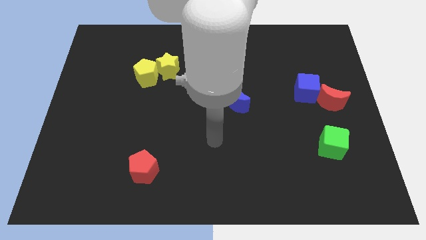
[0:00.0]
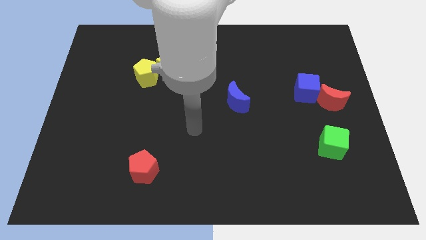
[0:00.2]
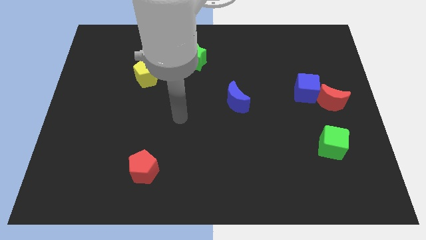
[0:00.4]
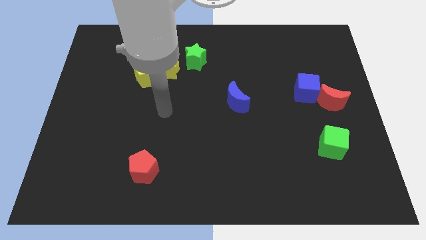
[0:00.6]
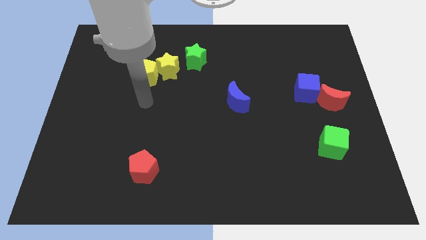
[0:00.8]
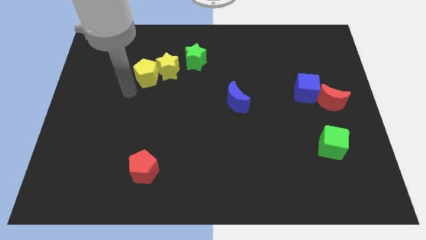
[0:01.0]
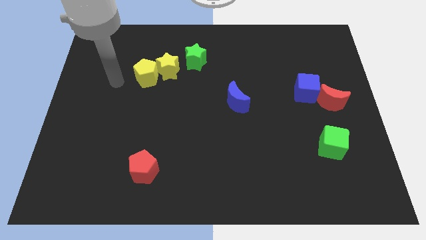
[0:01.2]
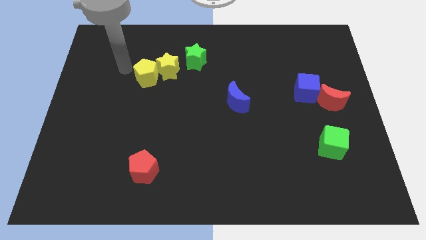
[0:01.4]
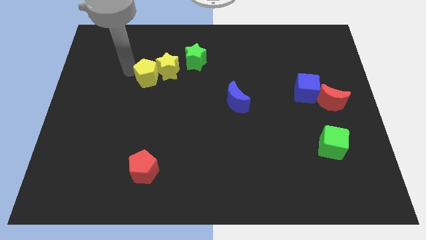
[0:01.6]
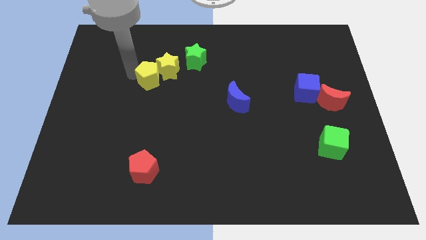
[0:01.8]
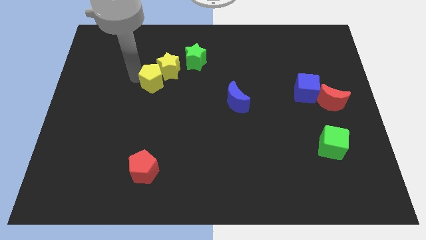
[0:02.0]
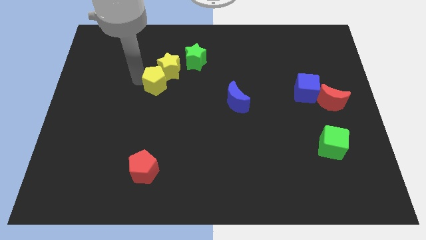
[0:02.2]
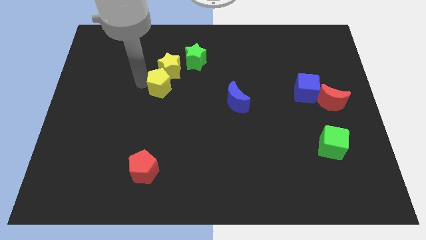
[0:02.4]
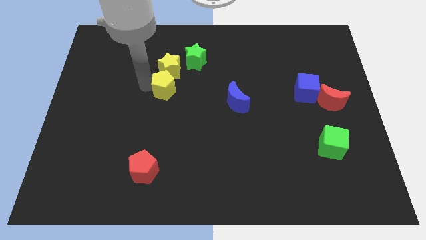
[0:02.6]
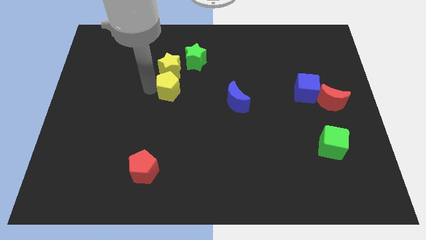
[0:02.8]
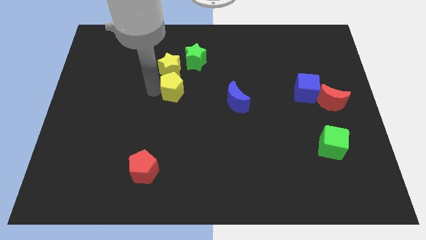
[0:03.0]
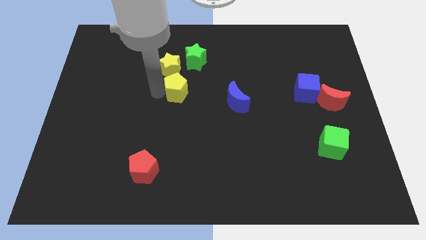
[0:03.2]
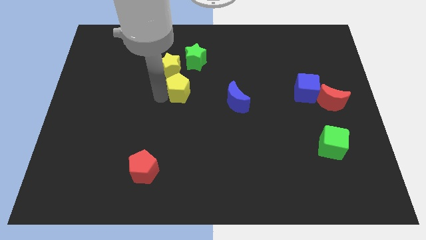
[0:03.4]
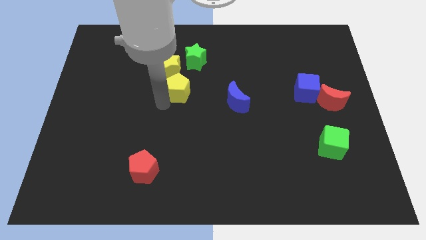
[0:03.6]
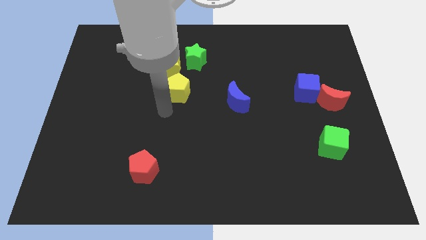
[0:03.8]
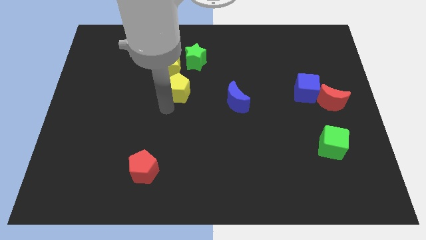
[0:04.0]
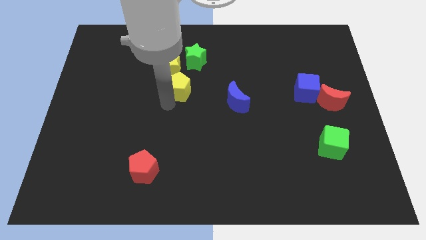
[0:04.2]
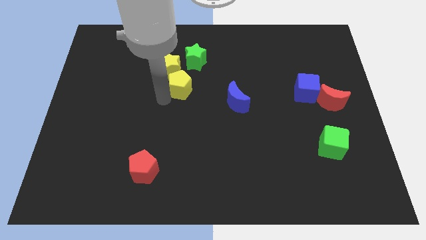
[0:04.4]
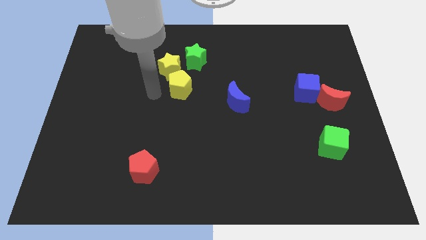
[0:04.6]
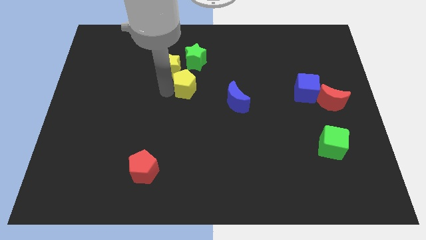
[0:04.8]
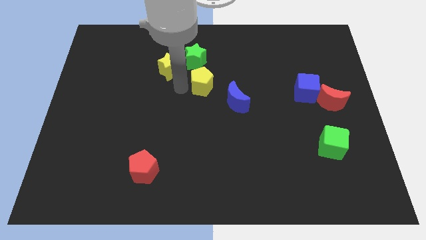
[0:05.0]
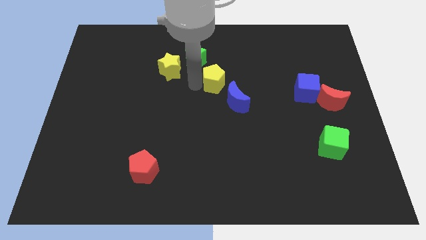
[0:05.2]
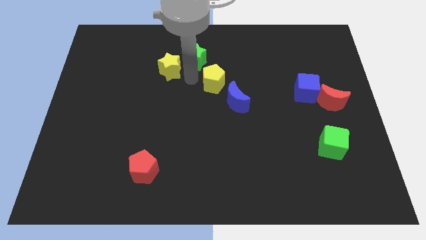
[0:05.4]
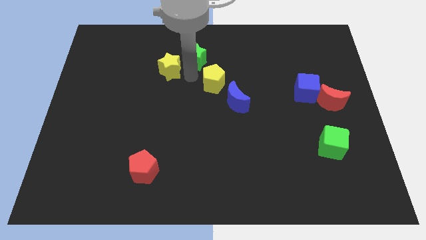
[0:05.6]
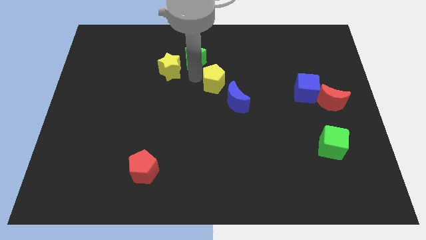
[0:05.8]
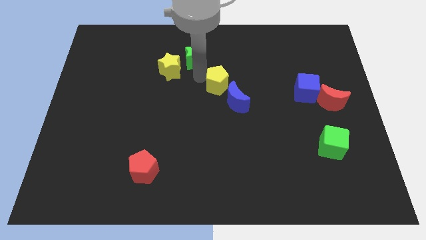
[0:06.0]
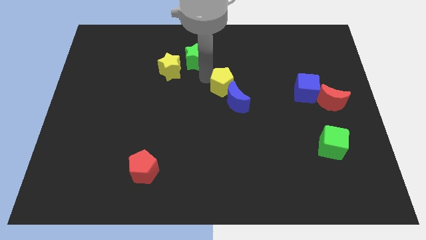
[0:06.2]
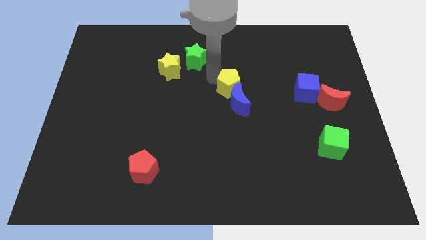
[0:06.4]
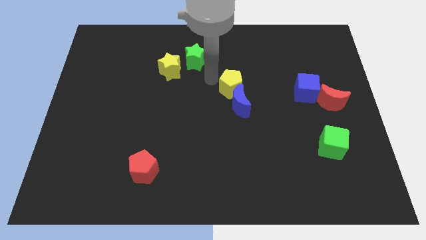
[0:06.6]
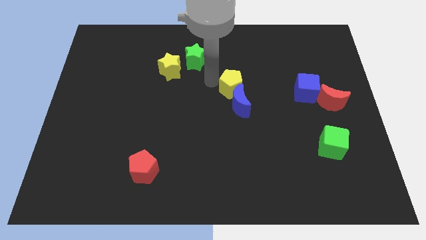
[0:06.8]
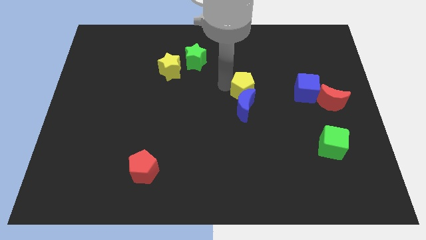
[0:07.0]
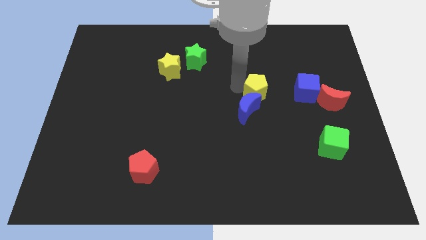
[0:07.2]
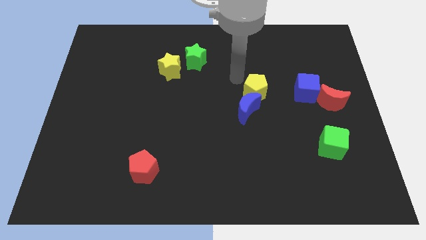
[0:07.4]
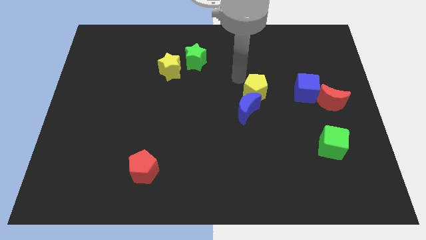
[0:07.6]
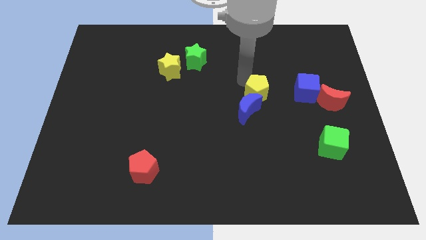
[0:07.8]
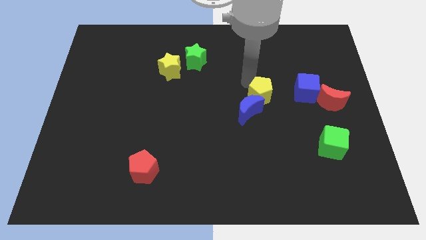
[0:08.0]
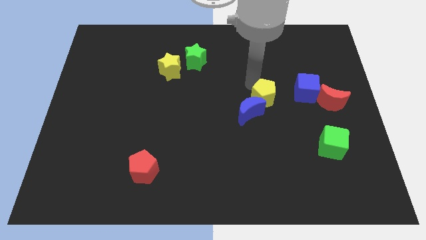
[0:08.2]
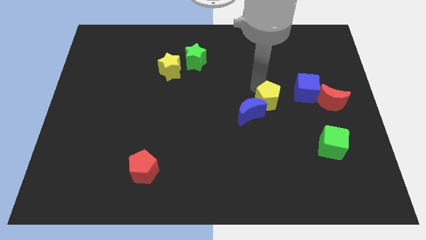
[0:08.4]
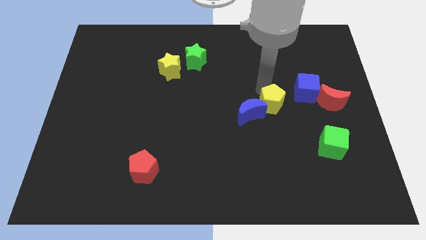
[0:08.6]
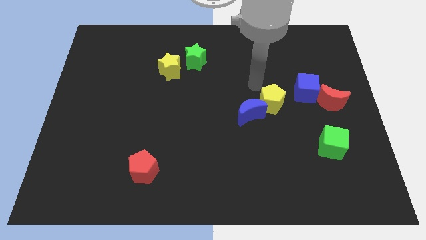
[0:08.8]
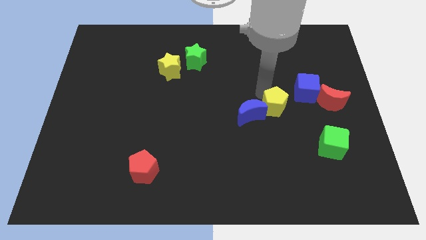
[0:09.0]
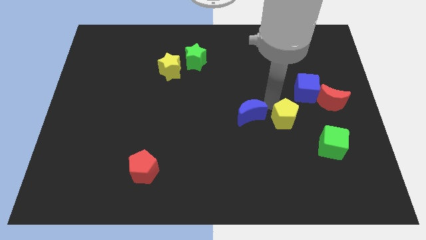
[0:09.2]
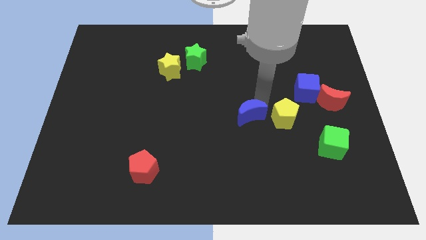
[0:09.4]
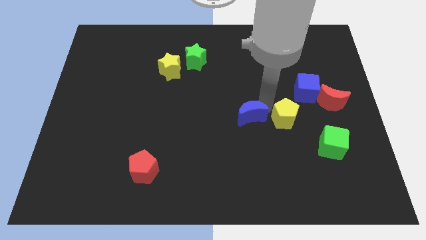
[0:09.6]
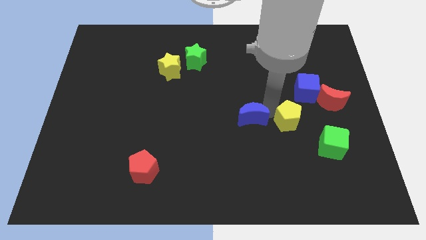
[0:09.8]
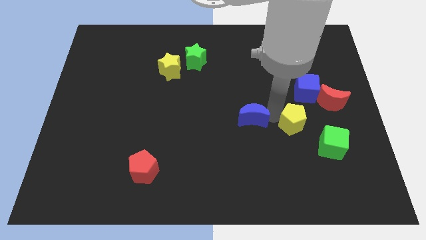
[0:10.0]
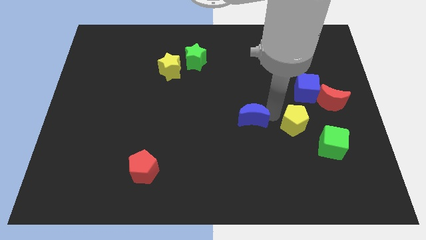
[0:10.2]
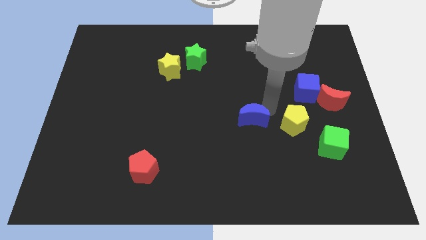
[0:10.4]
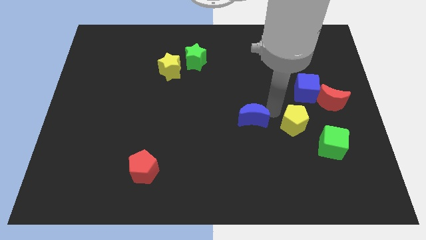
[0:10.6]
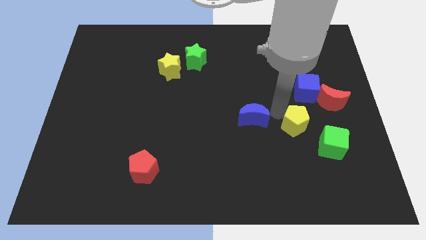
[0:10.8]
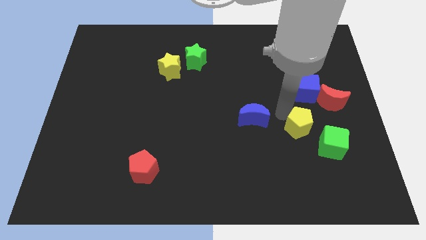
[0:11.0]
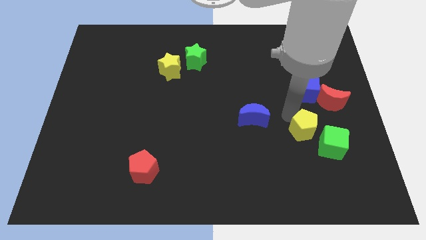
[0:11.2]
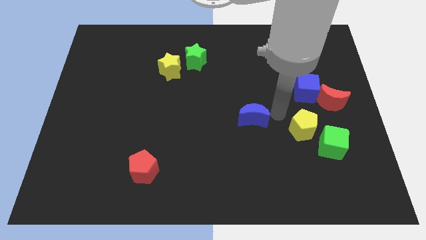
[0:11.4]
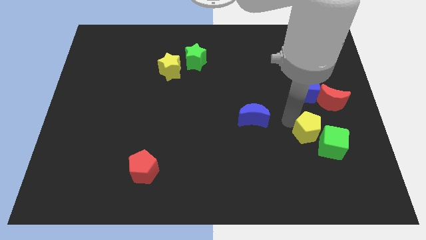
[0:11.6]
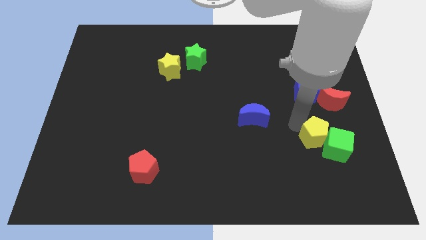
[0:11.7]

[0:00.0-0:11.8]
slide the yellow pentagon close to the green cube

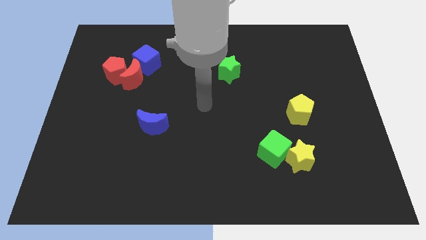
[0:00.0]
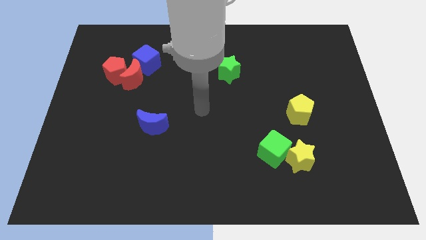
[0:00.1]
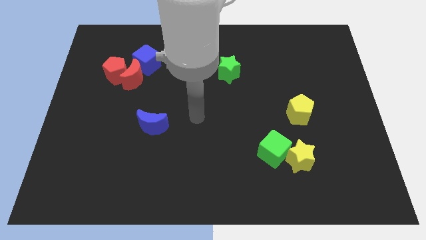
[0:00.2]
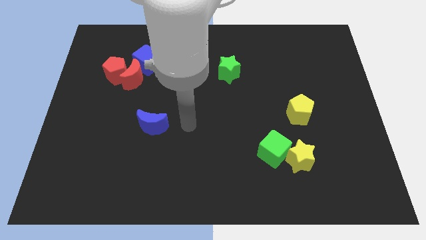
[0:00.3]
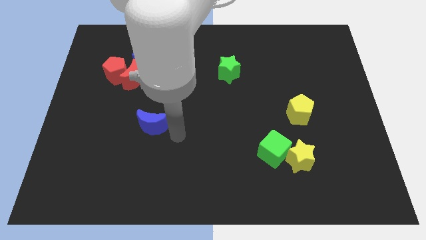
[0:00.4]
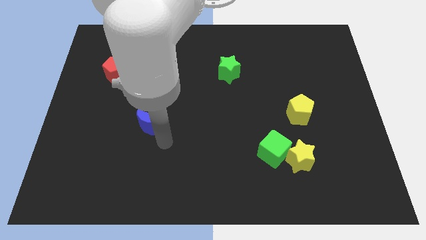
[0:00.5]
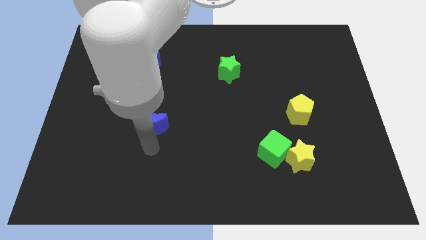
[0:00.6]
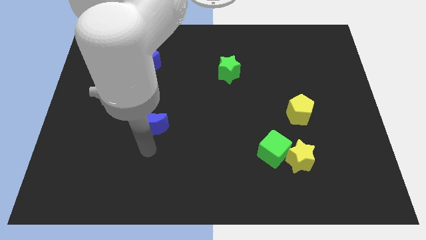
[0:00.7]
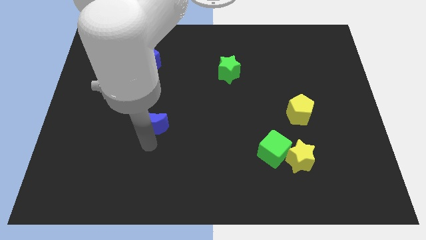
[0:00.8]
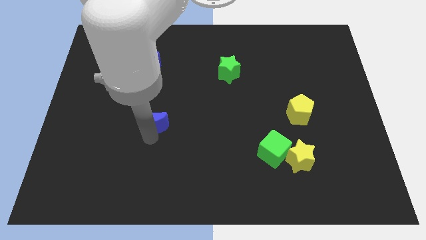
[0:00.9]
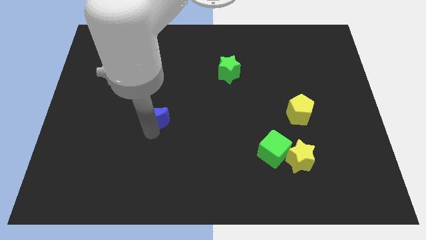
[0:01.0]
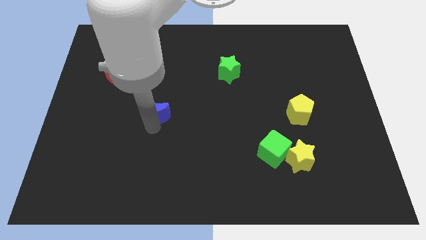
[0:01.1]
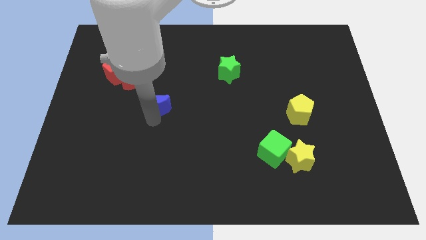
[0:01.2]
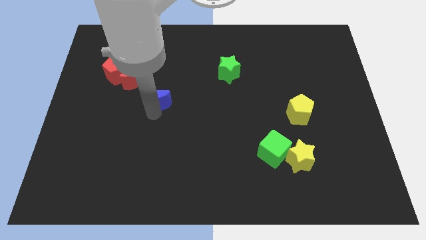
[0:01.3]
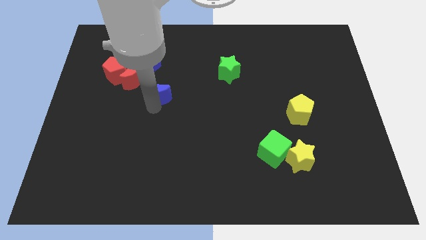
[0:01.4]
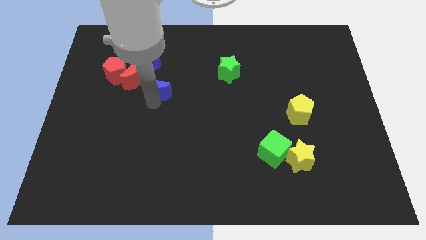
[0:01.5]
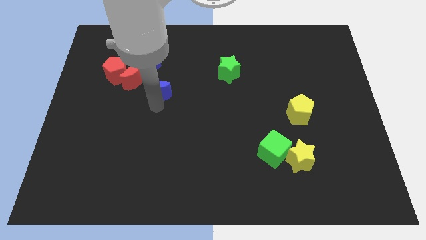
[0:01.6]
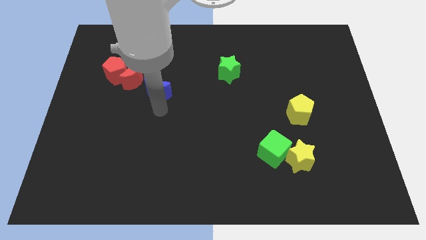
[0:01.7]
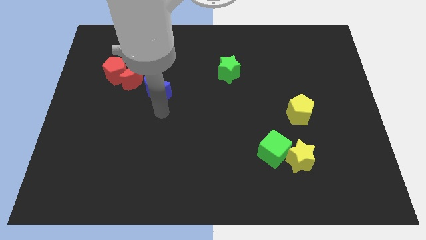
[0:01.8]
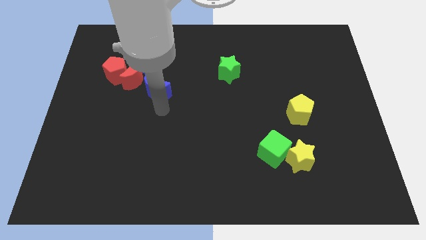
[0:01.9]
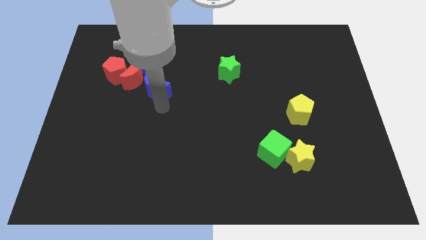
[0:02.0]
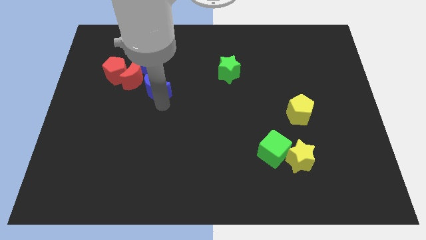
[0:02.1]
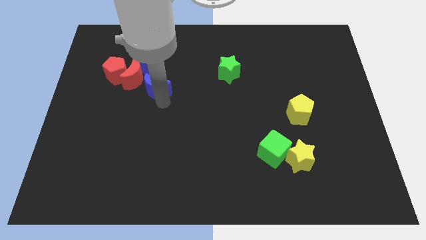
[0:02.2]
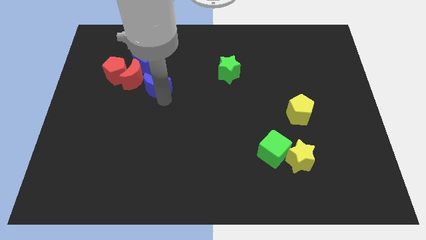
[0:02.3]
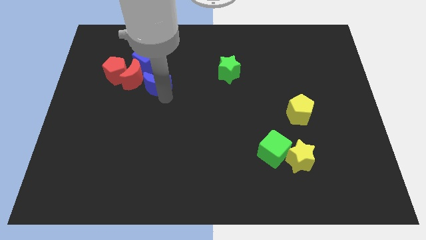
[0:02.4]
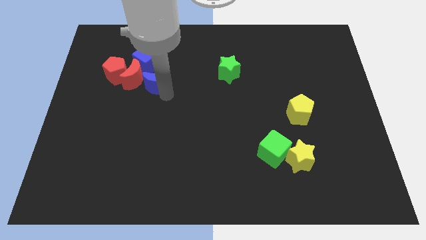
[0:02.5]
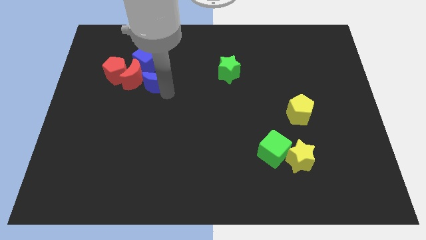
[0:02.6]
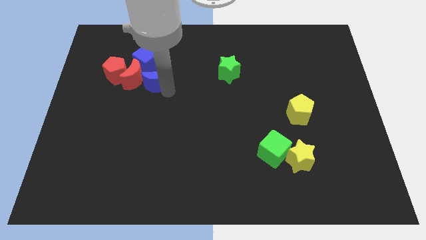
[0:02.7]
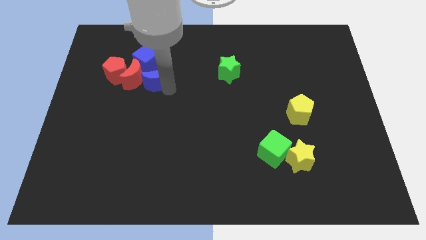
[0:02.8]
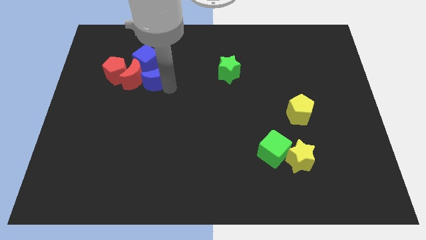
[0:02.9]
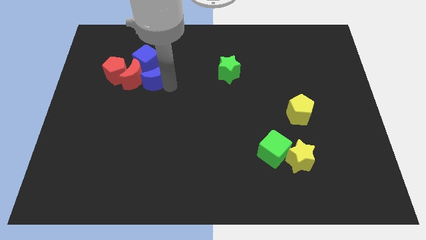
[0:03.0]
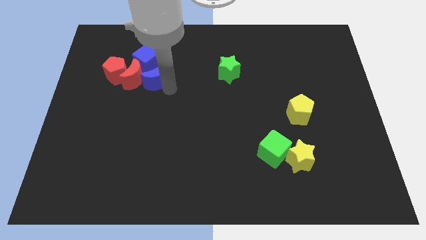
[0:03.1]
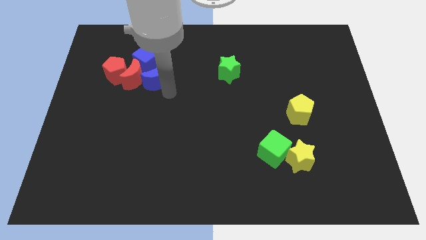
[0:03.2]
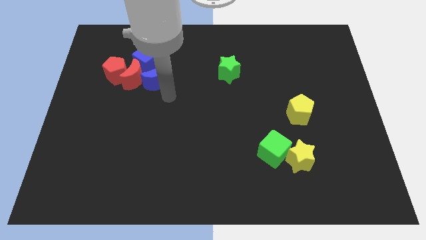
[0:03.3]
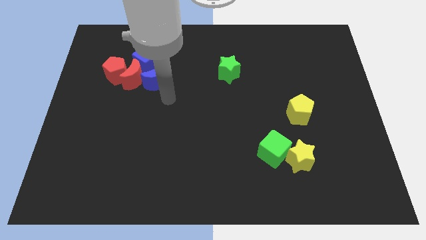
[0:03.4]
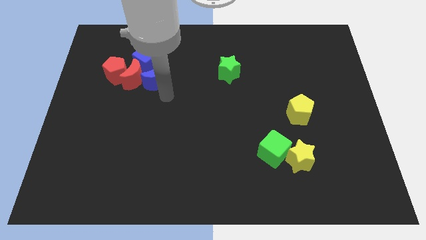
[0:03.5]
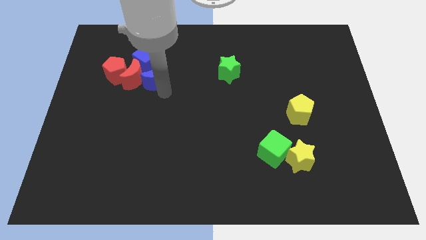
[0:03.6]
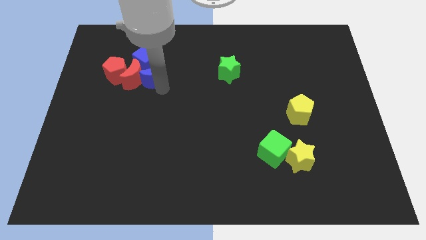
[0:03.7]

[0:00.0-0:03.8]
push the blue moon close to the blue cube
